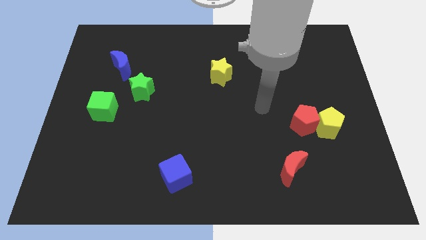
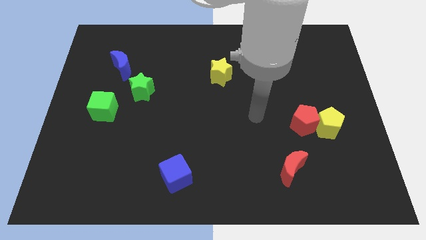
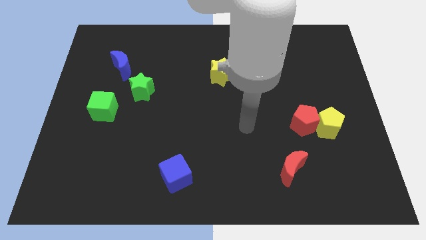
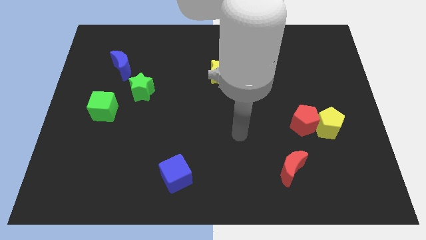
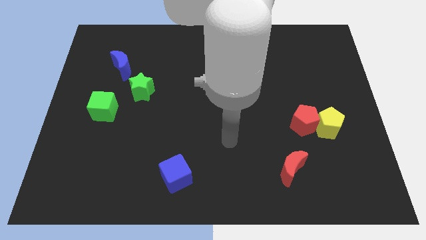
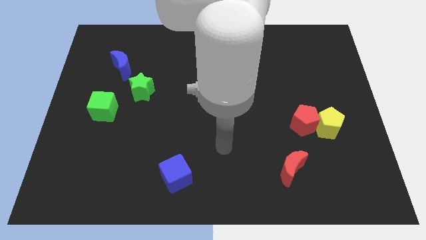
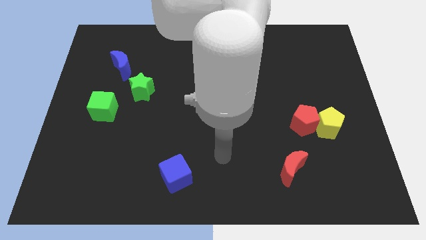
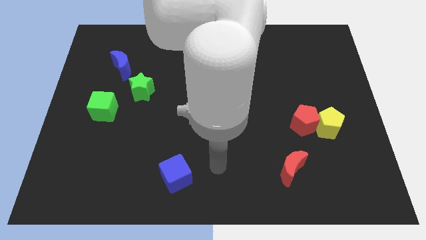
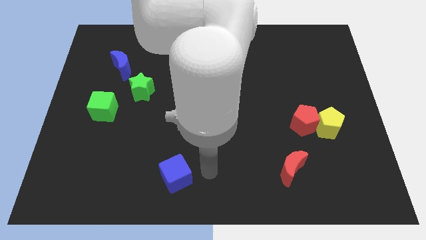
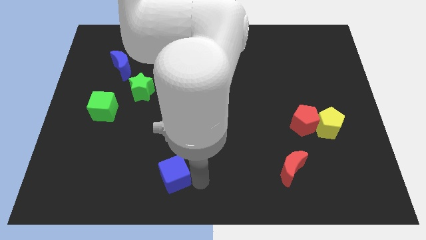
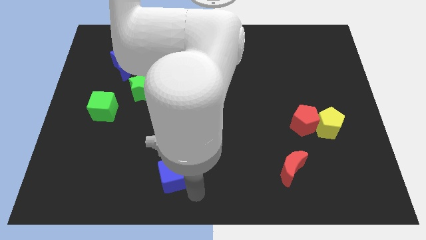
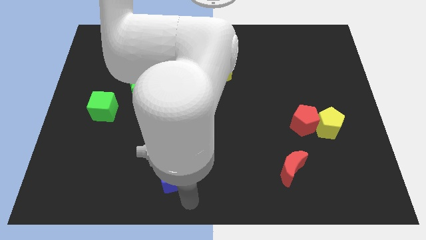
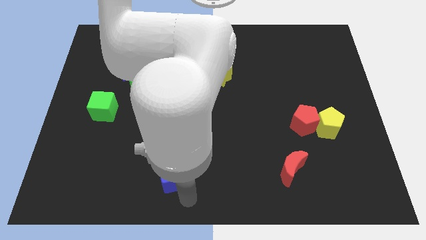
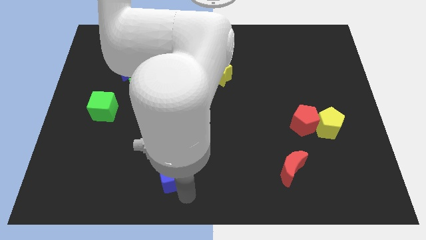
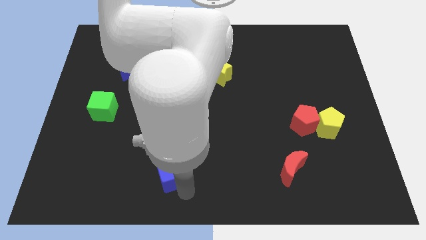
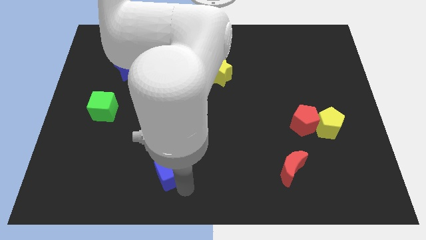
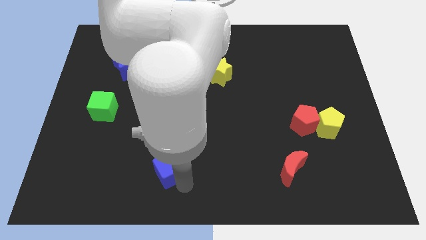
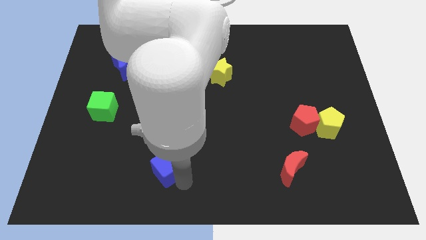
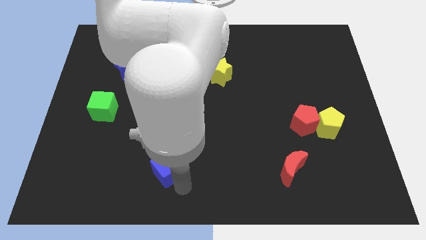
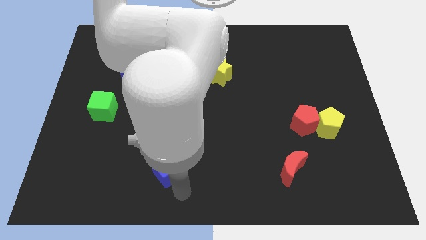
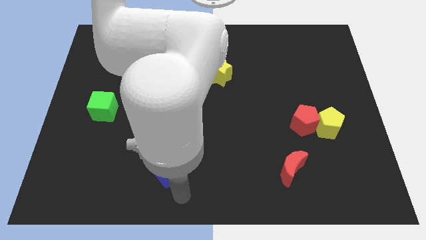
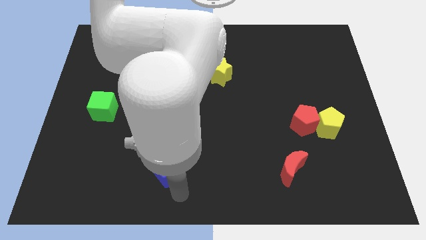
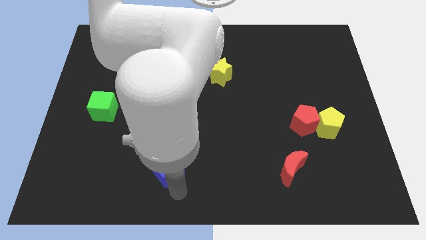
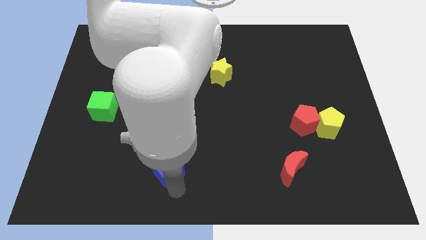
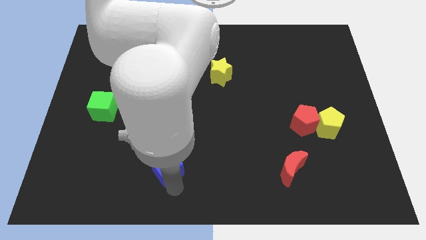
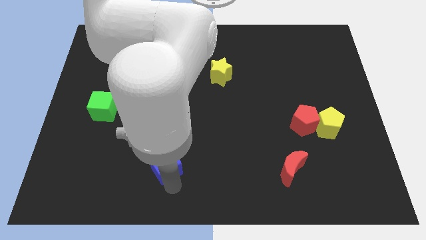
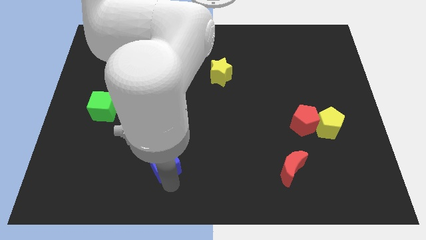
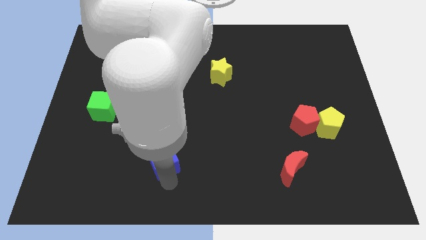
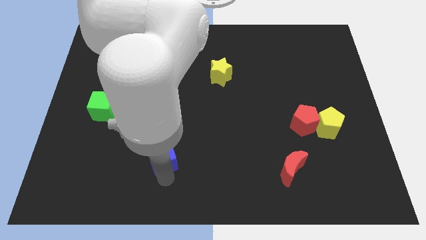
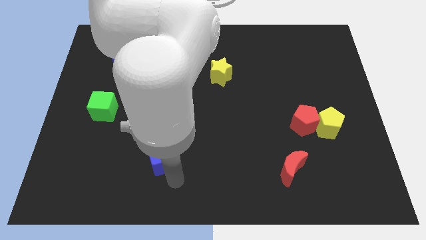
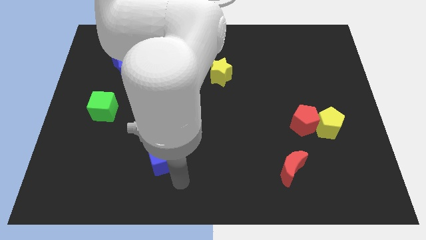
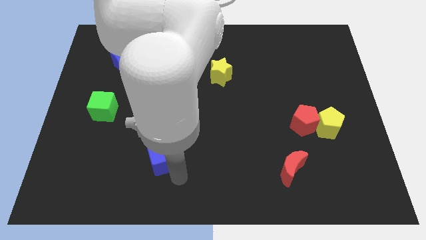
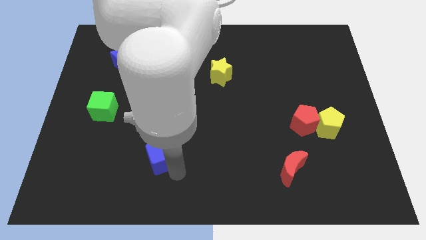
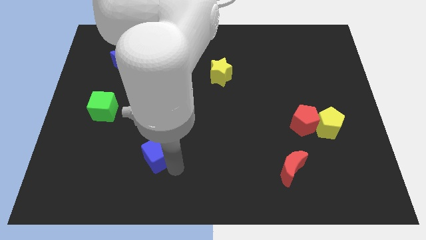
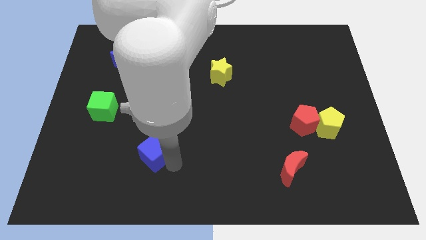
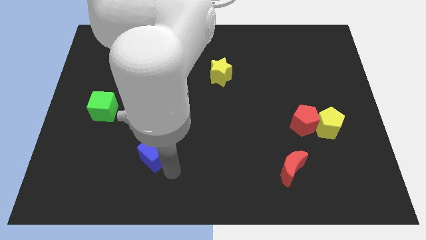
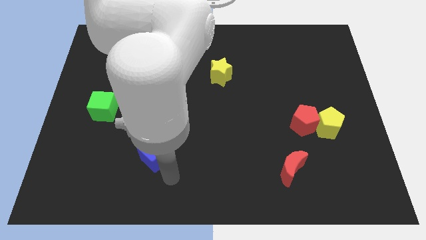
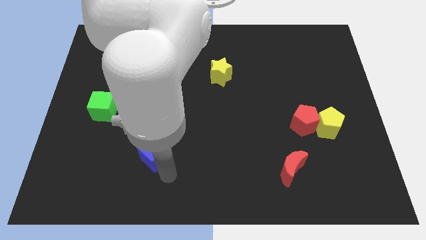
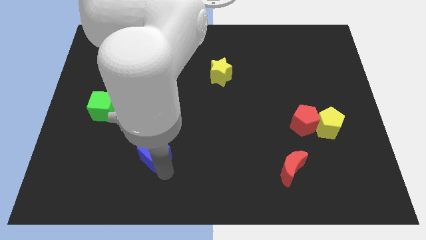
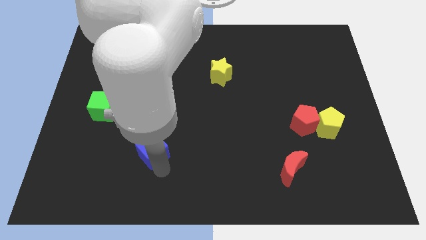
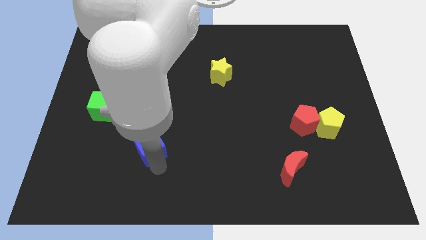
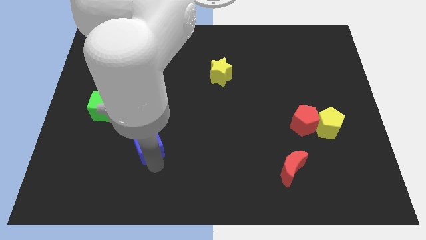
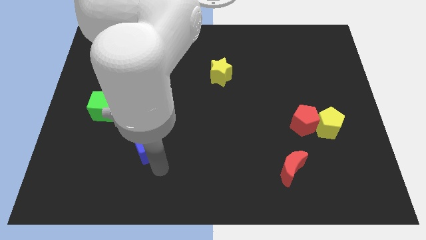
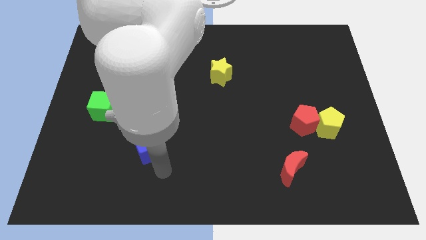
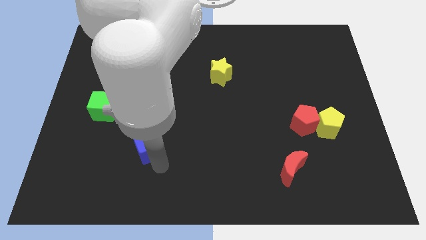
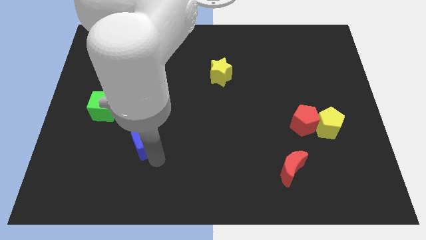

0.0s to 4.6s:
put the blue cube to the bottom of the green star

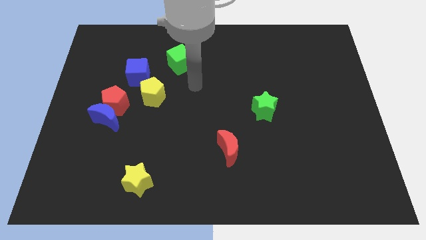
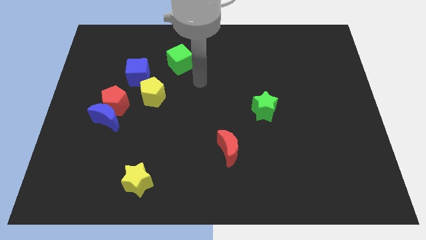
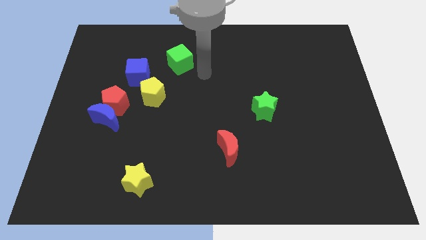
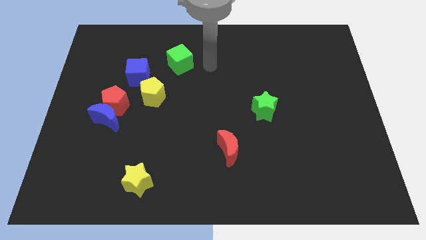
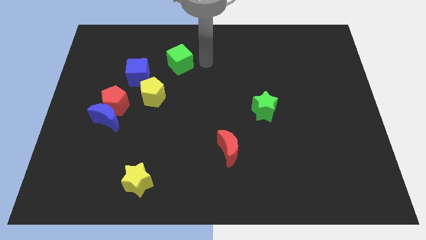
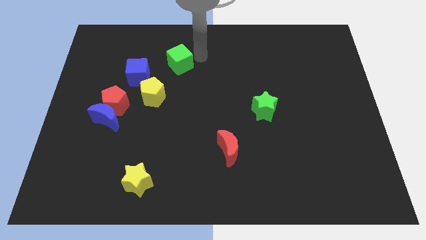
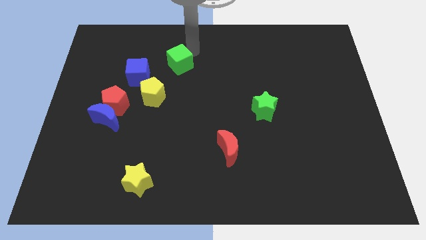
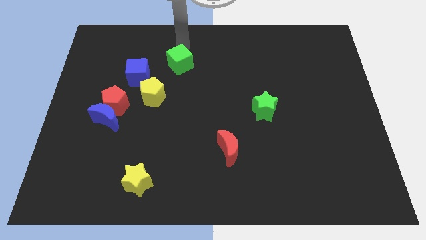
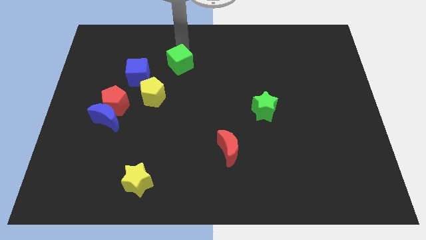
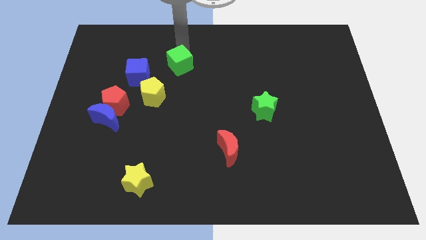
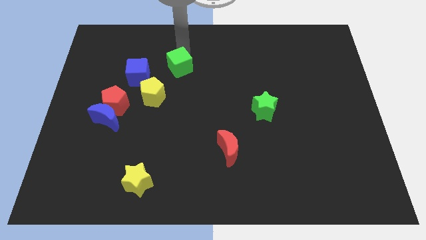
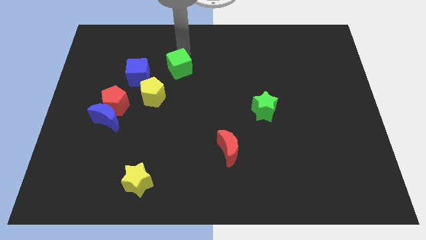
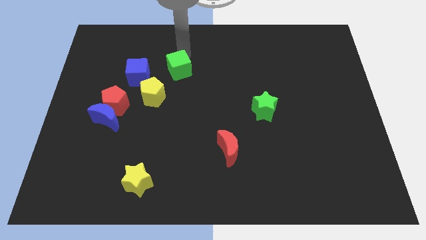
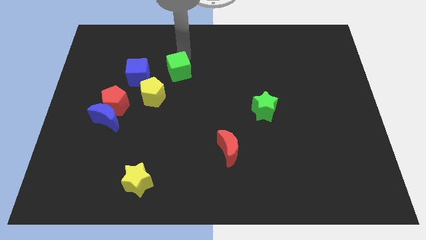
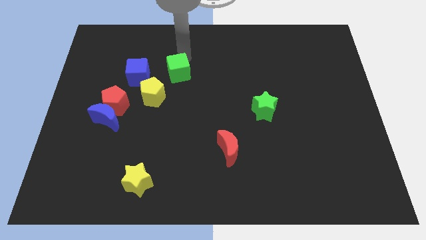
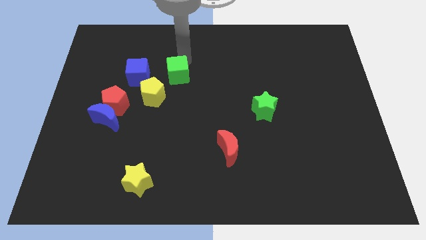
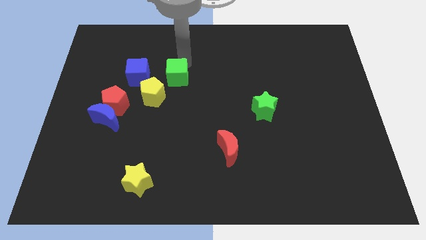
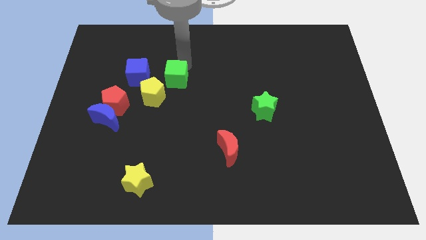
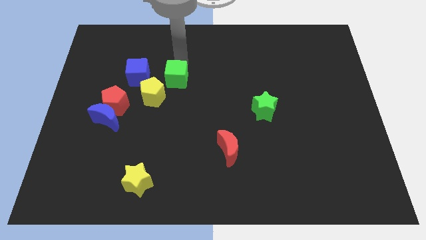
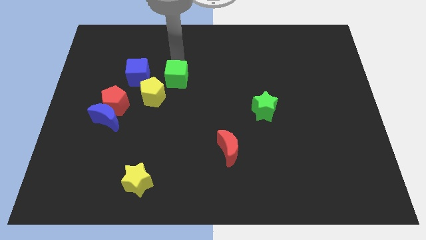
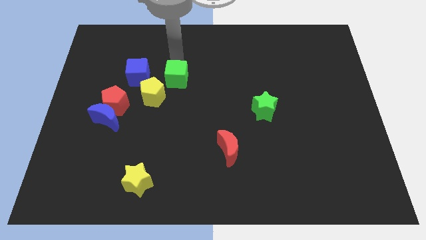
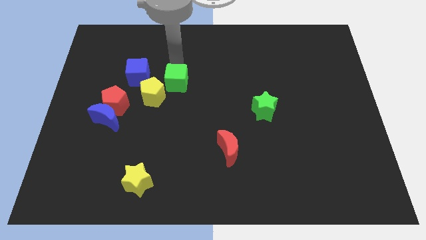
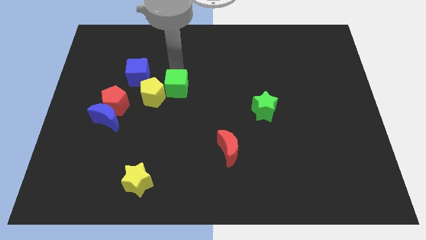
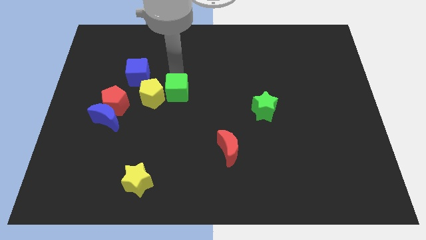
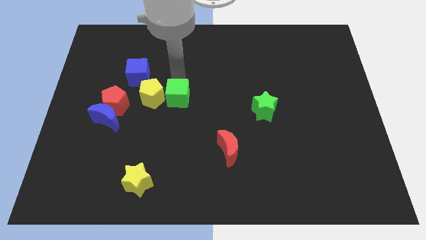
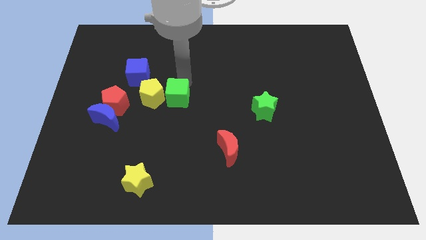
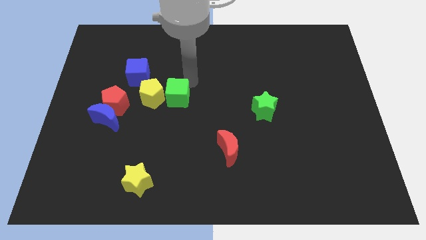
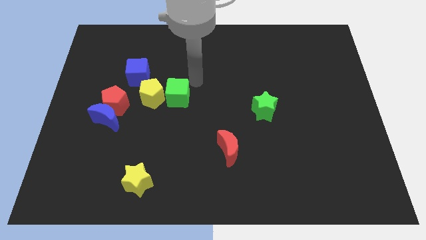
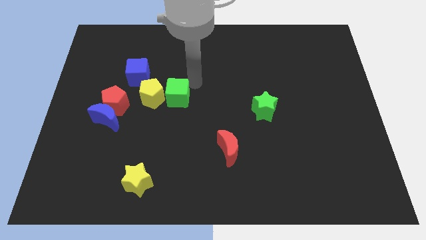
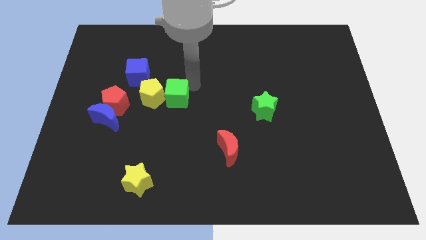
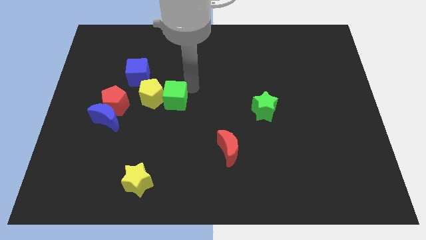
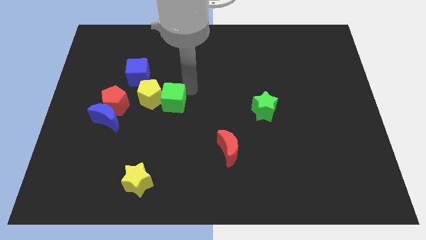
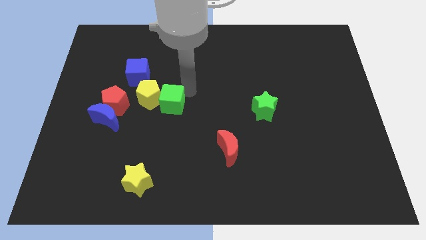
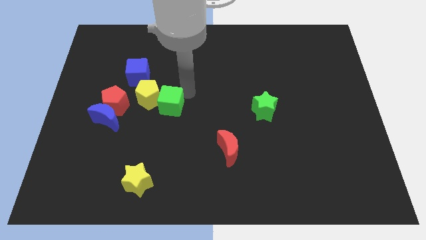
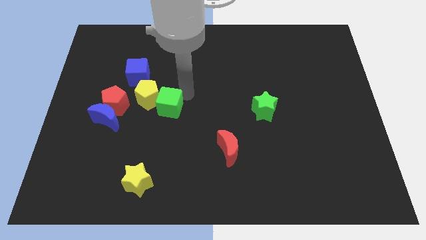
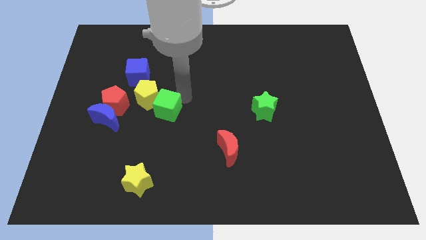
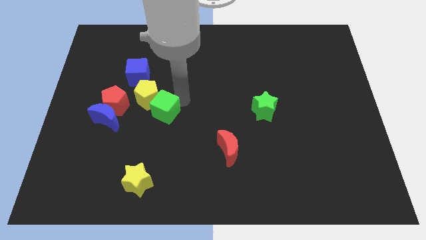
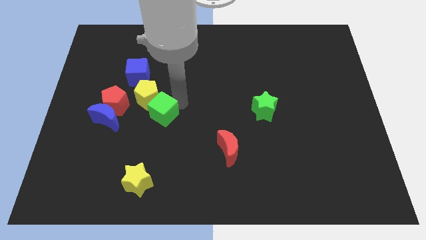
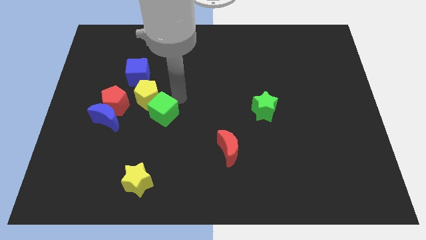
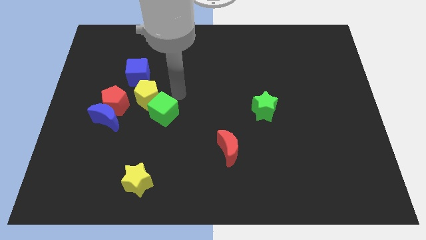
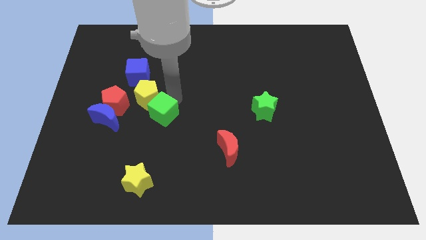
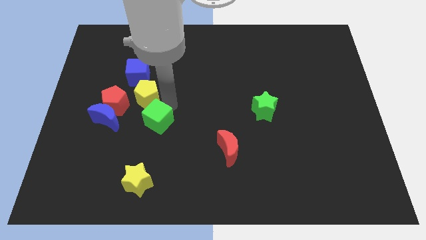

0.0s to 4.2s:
slide the green cube to the top side of the yellow star
